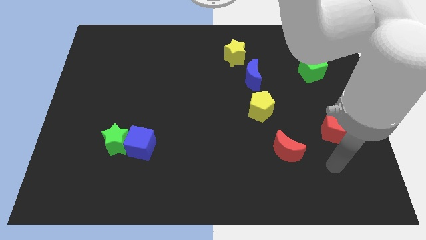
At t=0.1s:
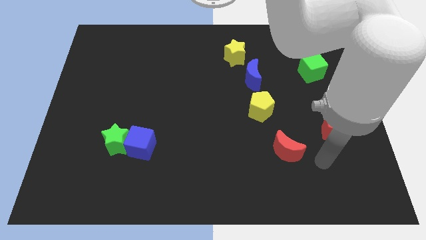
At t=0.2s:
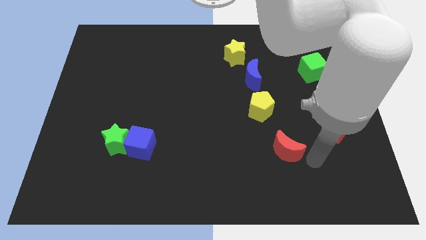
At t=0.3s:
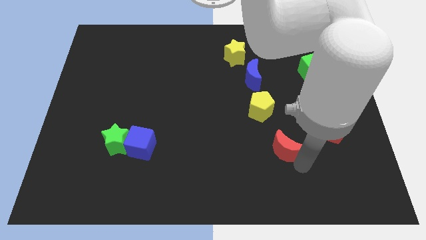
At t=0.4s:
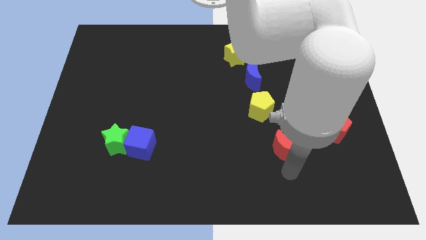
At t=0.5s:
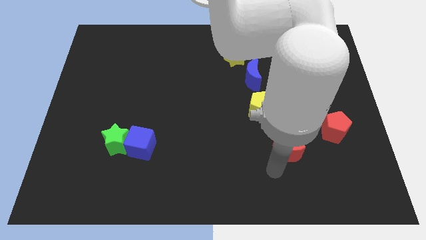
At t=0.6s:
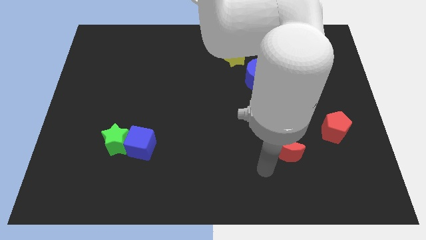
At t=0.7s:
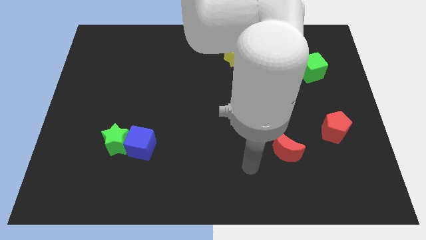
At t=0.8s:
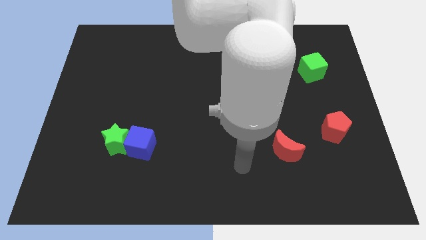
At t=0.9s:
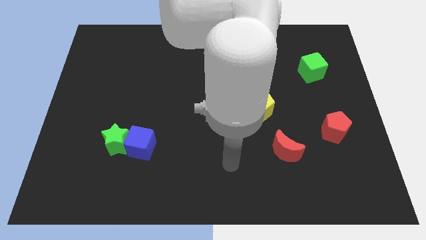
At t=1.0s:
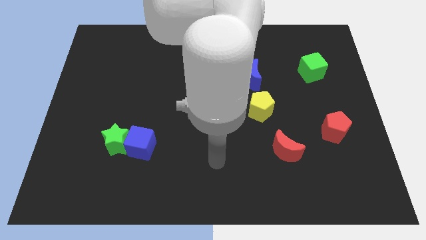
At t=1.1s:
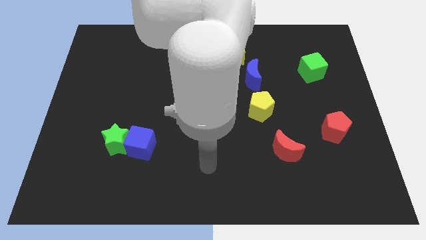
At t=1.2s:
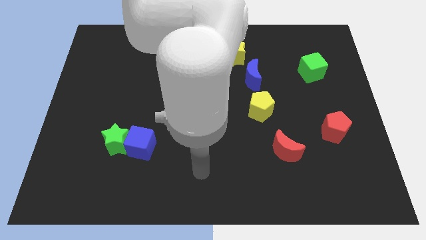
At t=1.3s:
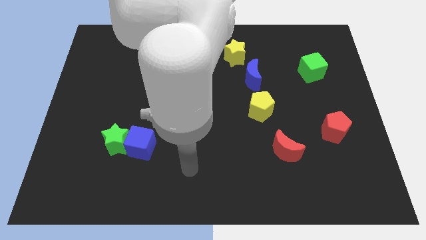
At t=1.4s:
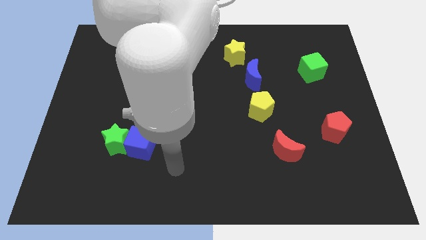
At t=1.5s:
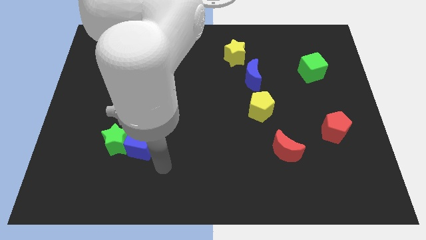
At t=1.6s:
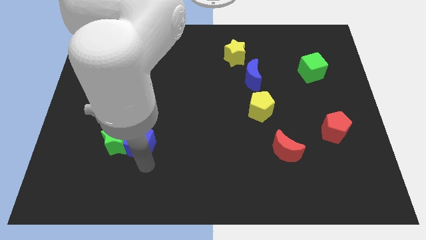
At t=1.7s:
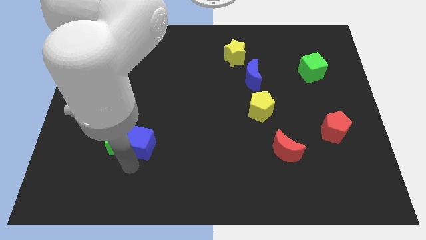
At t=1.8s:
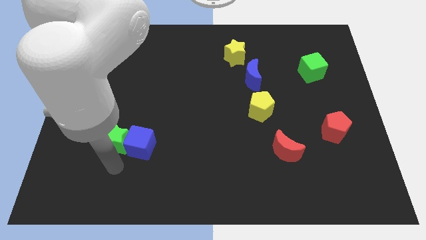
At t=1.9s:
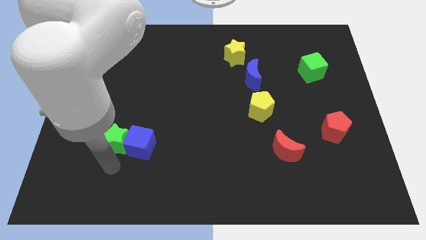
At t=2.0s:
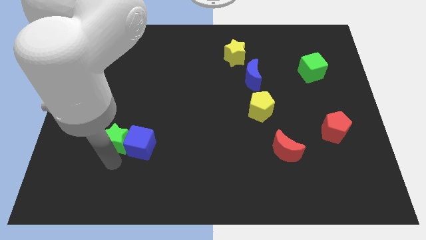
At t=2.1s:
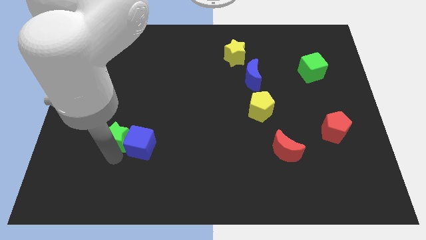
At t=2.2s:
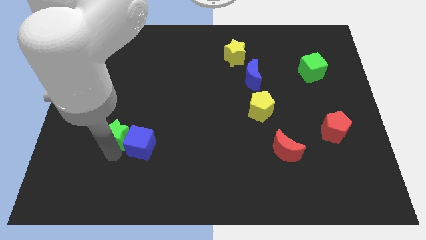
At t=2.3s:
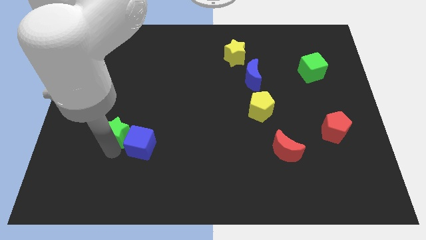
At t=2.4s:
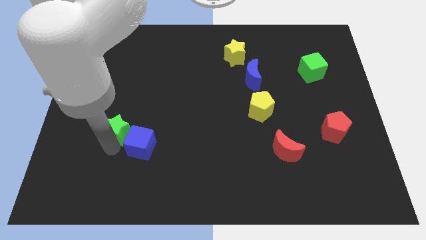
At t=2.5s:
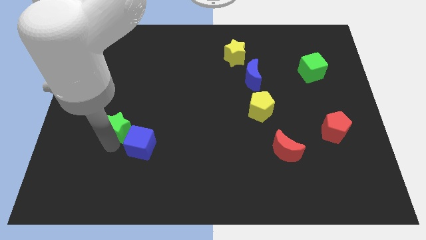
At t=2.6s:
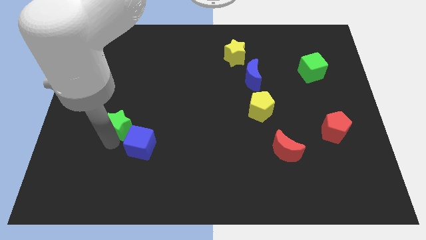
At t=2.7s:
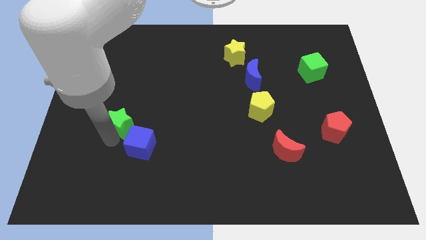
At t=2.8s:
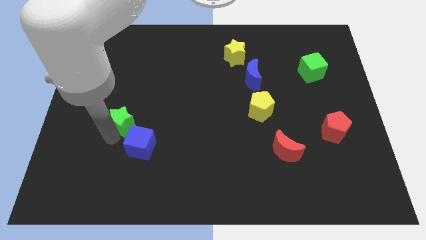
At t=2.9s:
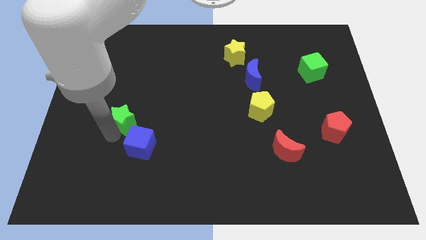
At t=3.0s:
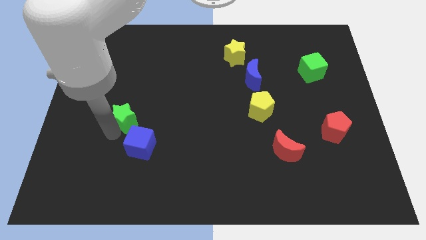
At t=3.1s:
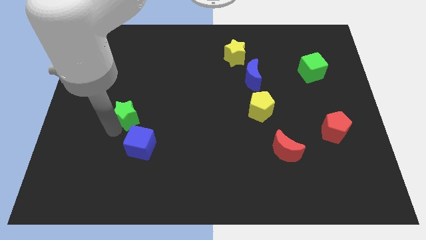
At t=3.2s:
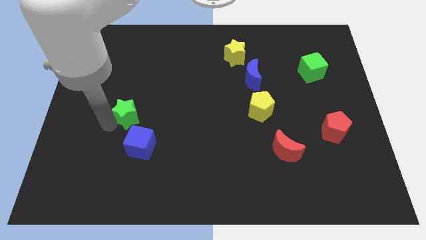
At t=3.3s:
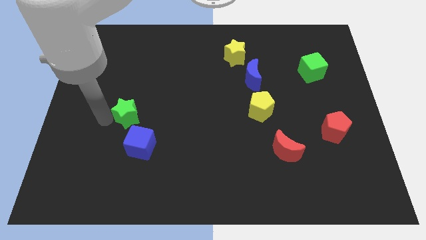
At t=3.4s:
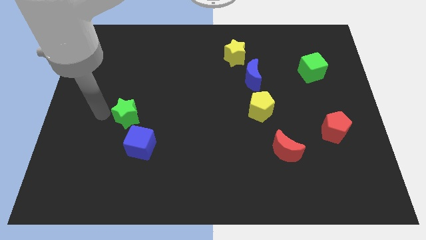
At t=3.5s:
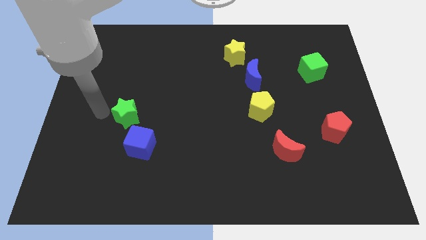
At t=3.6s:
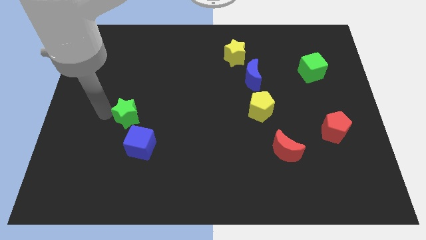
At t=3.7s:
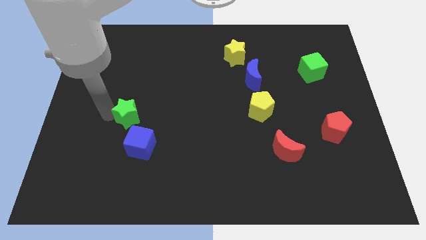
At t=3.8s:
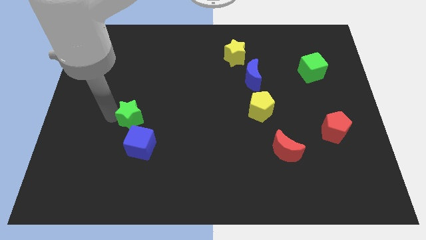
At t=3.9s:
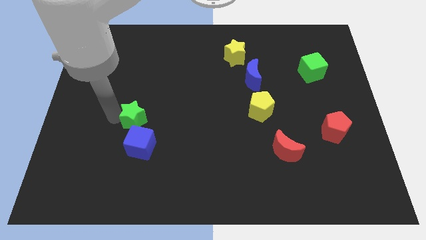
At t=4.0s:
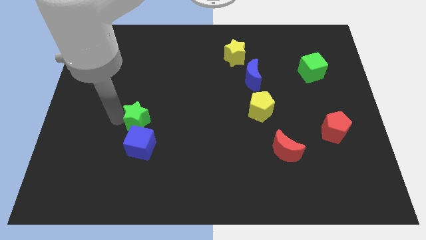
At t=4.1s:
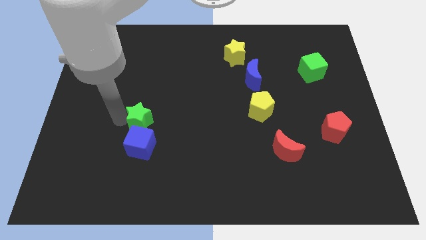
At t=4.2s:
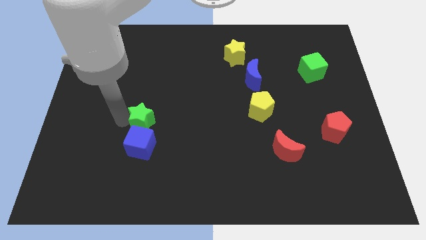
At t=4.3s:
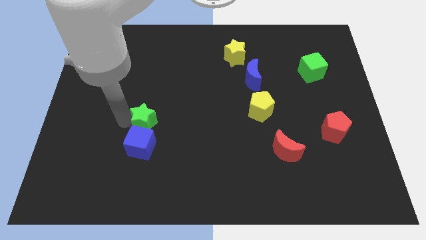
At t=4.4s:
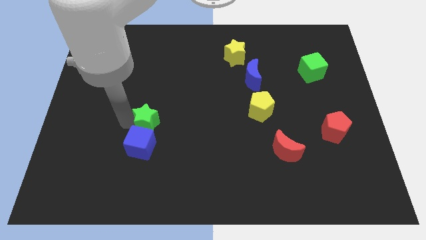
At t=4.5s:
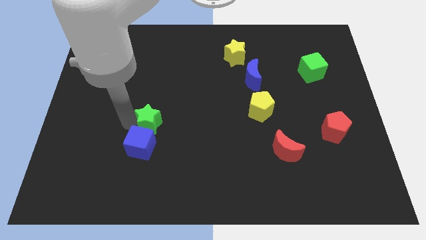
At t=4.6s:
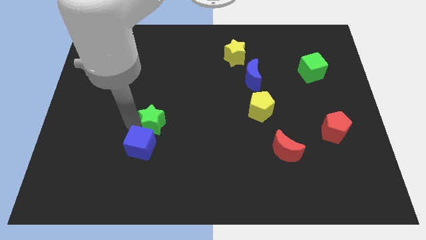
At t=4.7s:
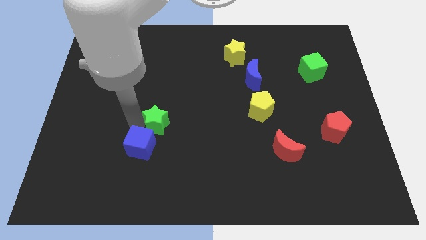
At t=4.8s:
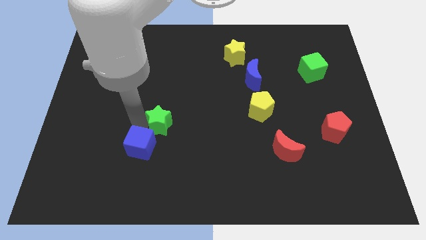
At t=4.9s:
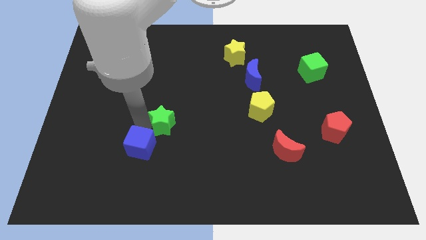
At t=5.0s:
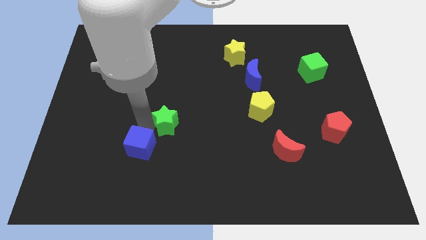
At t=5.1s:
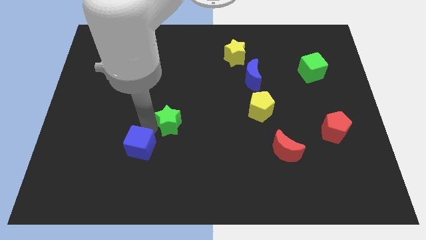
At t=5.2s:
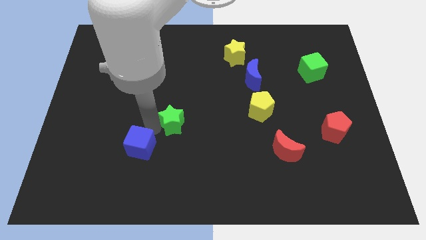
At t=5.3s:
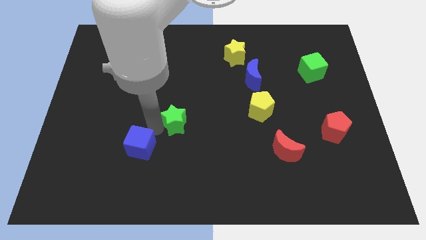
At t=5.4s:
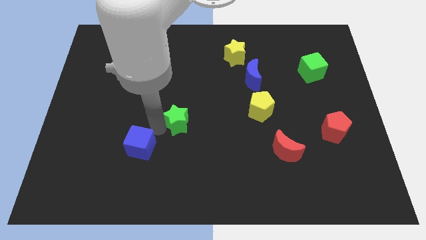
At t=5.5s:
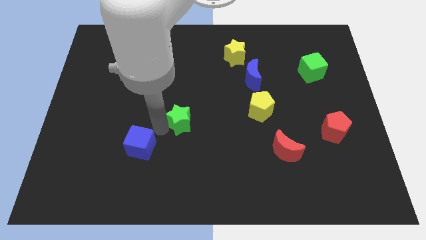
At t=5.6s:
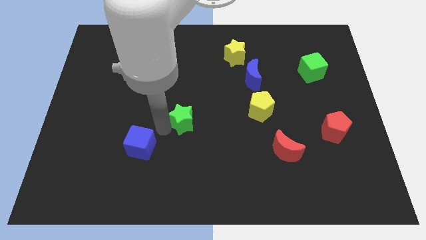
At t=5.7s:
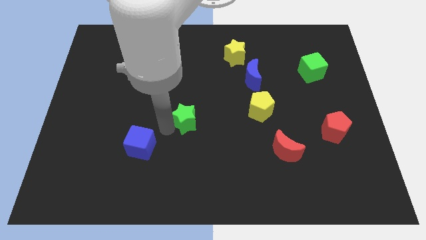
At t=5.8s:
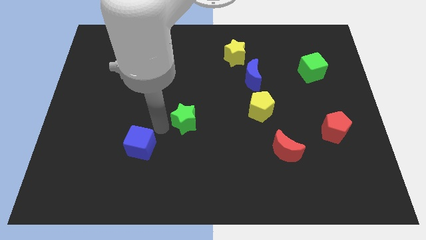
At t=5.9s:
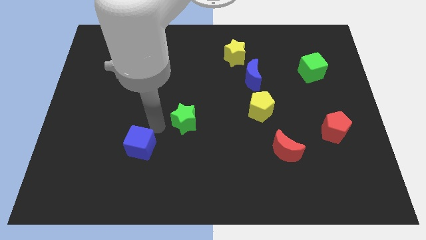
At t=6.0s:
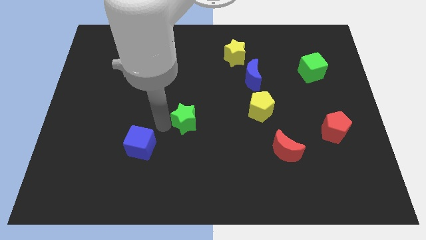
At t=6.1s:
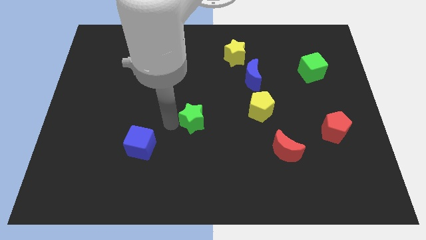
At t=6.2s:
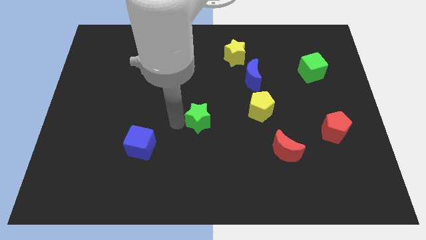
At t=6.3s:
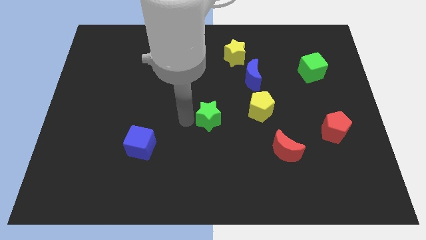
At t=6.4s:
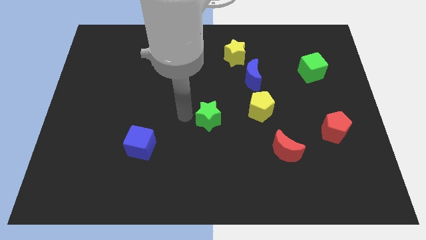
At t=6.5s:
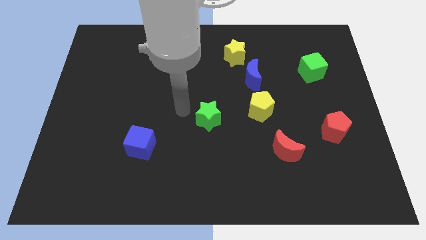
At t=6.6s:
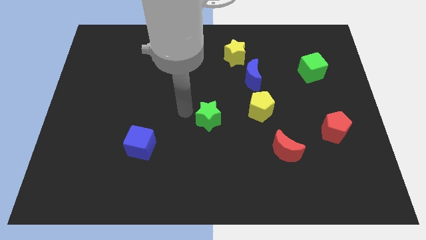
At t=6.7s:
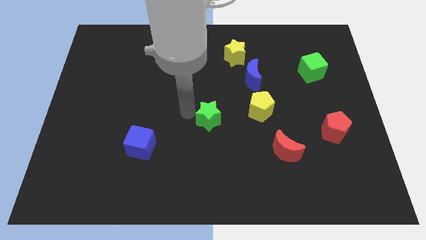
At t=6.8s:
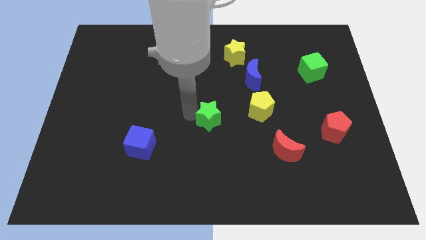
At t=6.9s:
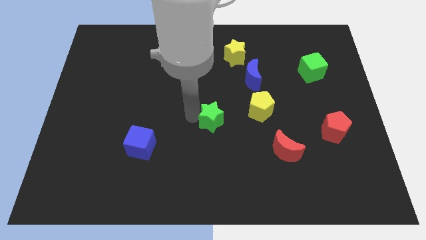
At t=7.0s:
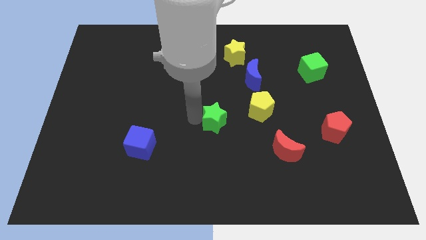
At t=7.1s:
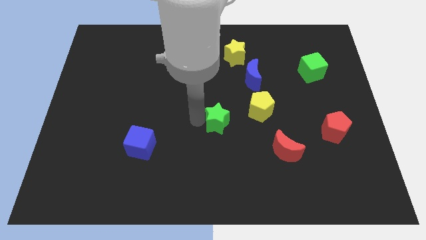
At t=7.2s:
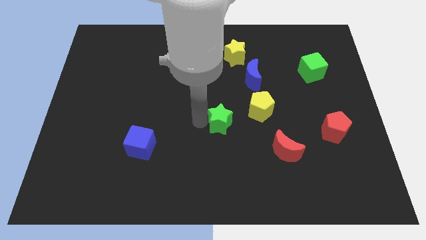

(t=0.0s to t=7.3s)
put the green star to the bottom left side of the yellow pentagon
